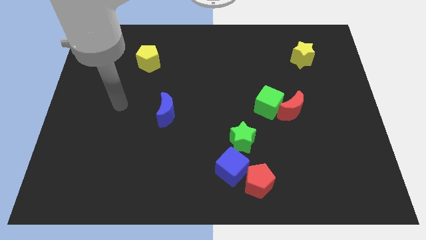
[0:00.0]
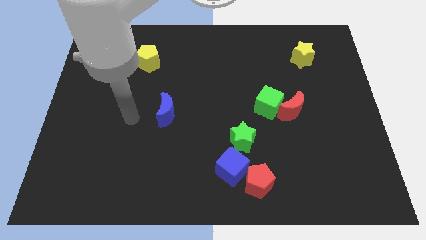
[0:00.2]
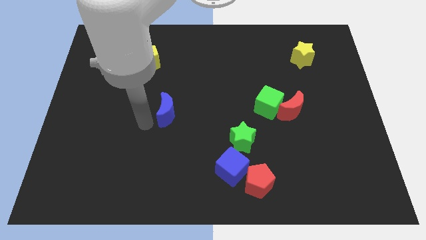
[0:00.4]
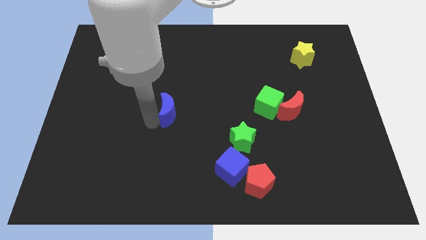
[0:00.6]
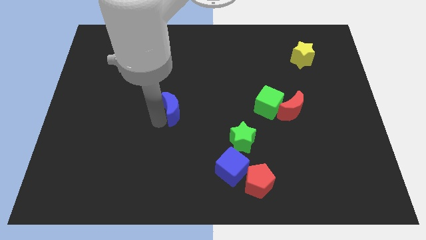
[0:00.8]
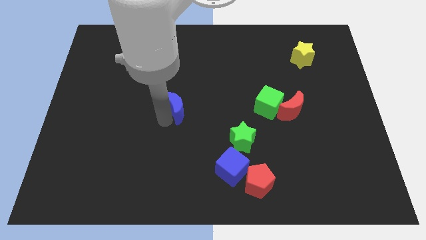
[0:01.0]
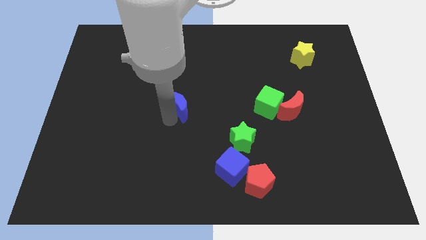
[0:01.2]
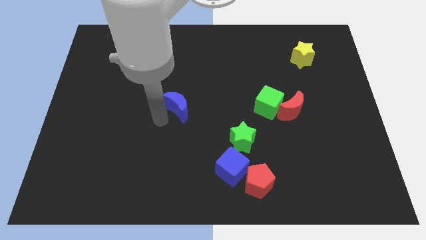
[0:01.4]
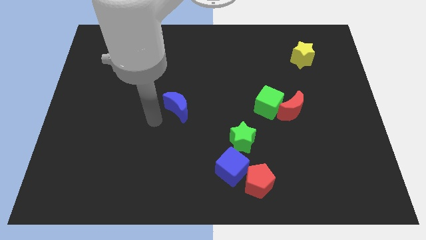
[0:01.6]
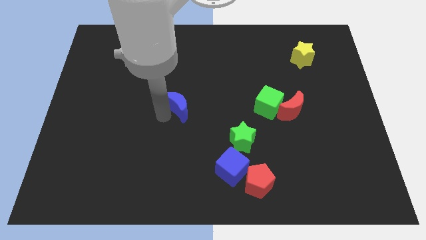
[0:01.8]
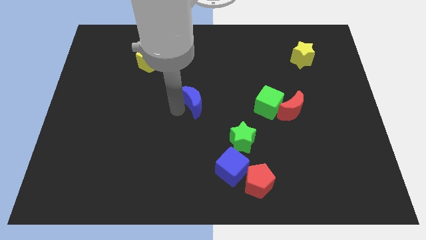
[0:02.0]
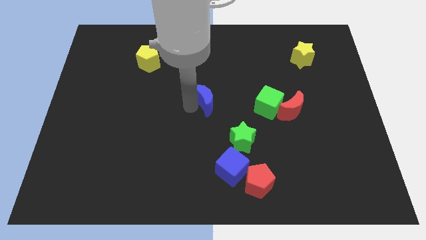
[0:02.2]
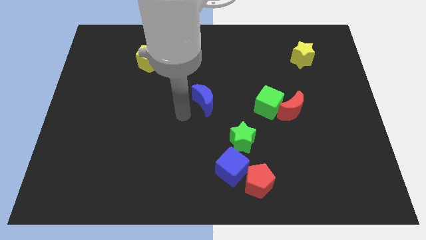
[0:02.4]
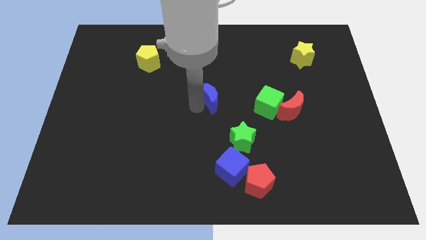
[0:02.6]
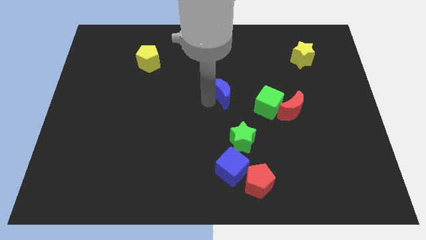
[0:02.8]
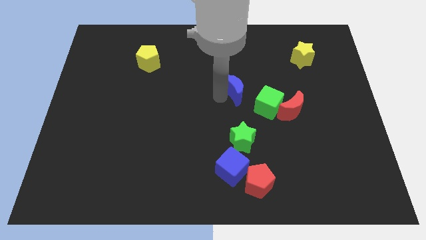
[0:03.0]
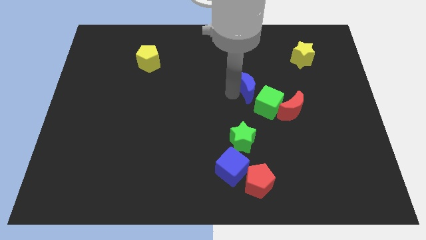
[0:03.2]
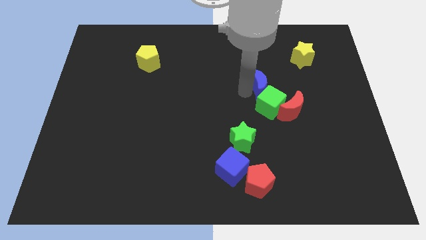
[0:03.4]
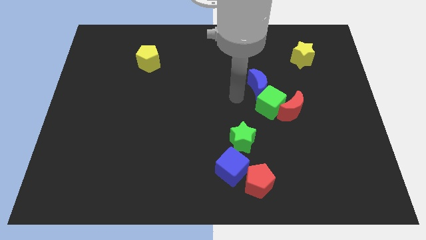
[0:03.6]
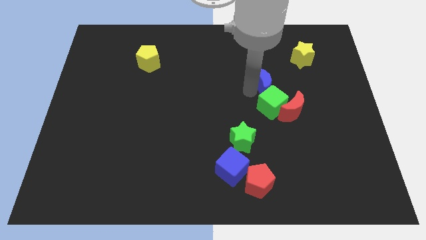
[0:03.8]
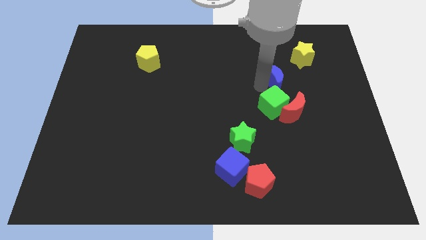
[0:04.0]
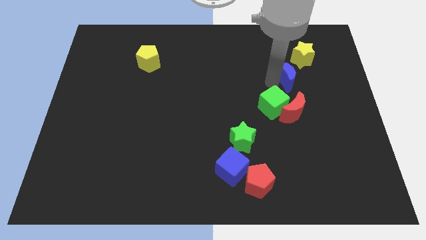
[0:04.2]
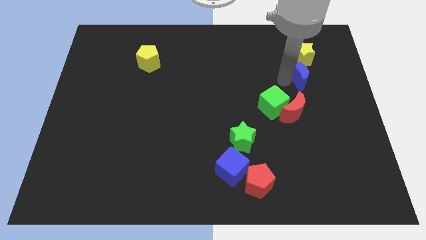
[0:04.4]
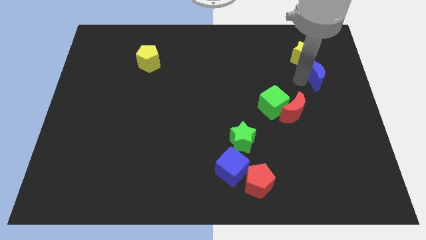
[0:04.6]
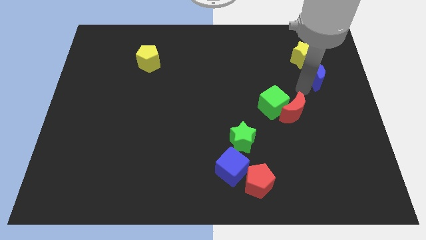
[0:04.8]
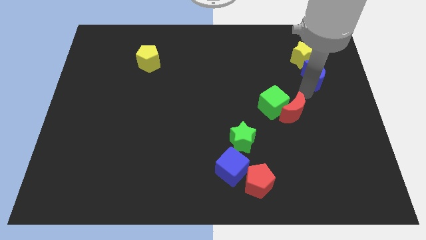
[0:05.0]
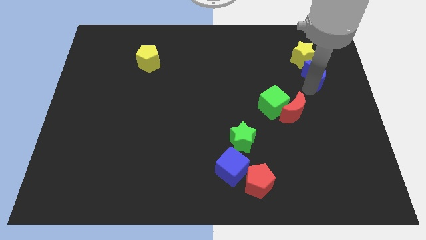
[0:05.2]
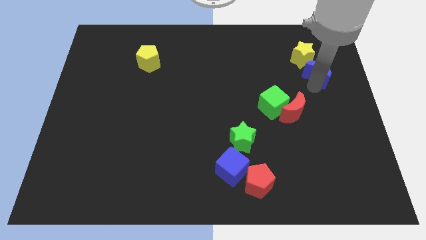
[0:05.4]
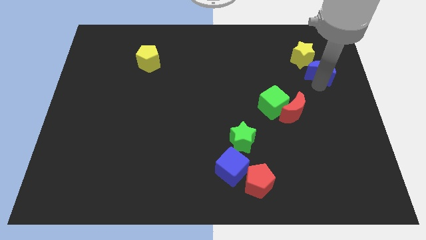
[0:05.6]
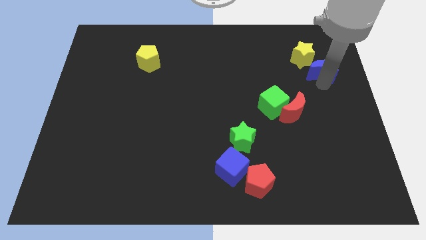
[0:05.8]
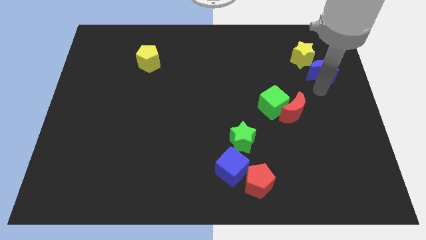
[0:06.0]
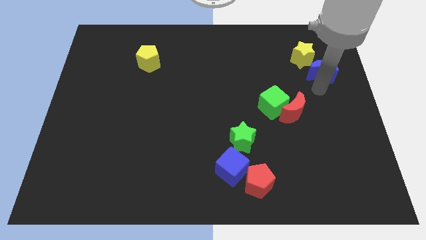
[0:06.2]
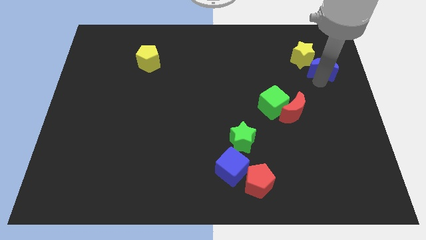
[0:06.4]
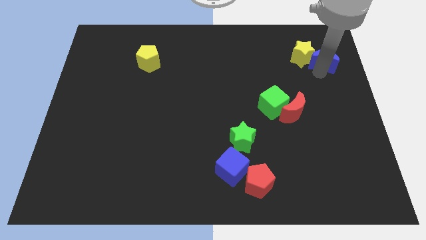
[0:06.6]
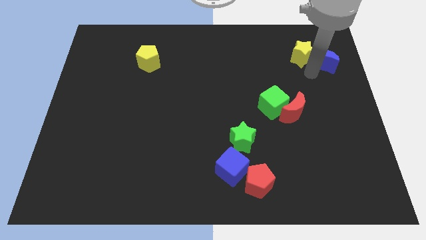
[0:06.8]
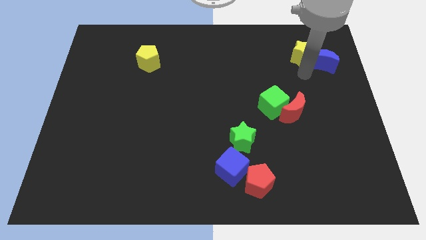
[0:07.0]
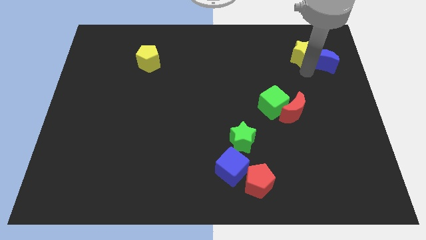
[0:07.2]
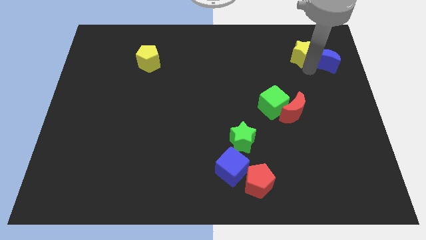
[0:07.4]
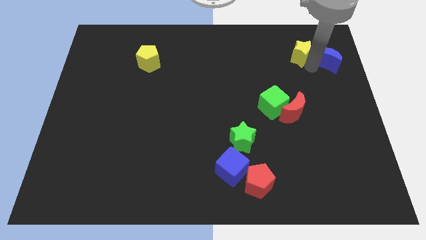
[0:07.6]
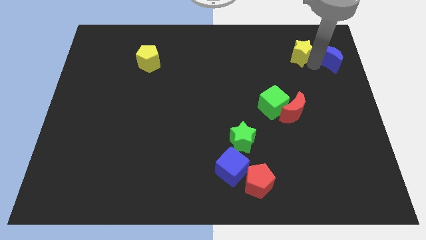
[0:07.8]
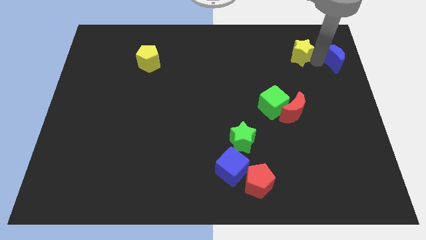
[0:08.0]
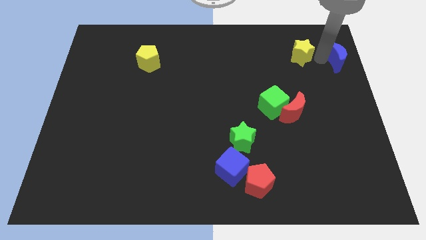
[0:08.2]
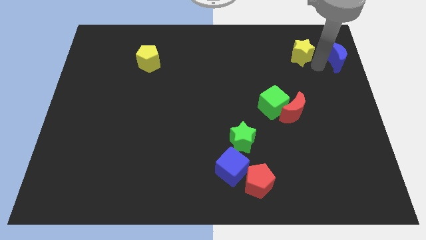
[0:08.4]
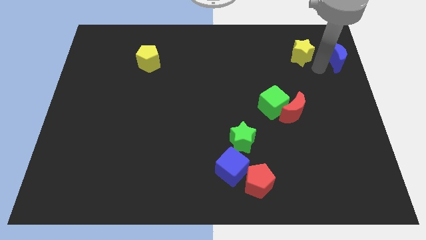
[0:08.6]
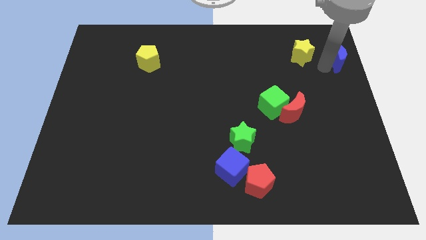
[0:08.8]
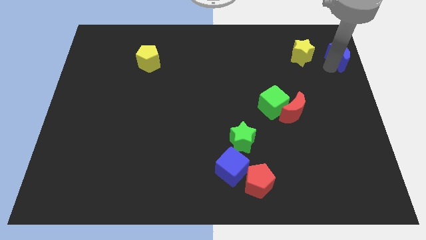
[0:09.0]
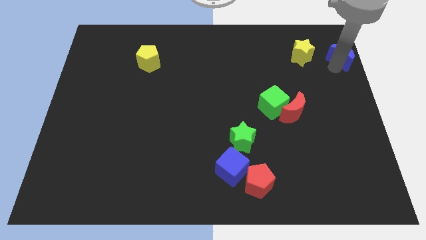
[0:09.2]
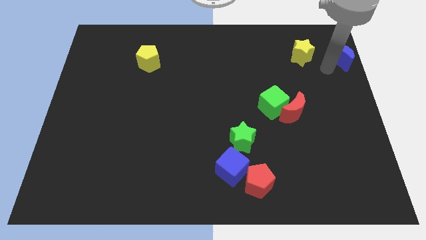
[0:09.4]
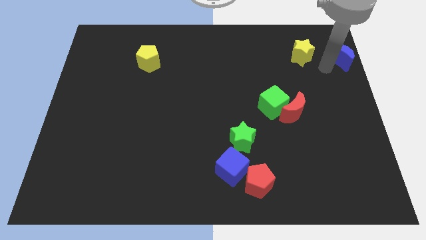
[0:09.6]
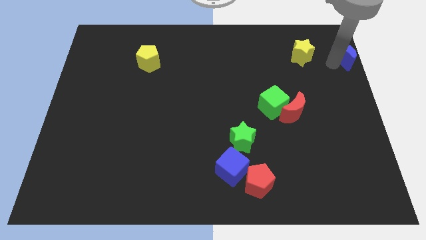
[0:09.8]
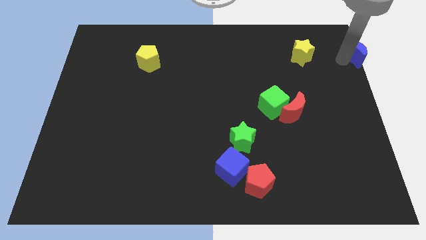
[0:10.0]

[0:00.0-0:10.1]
slide the blue moon to the top right corner
